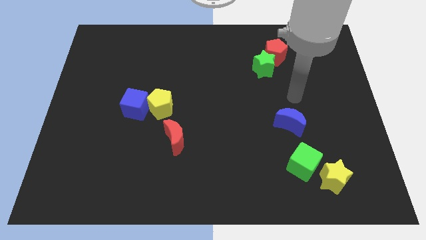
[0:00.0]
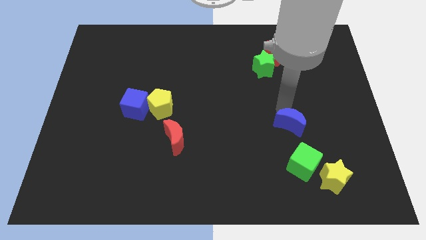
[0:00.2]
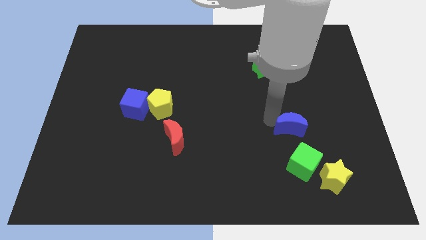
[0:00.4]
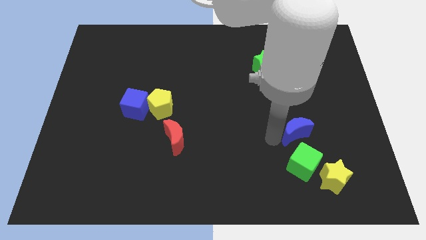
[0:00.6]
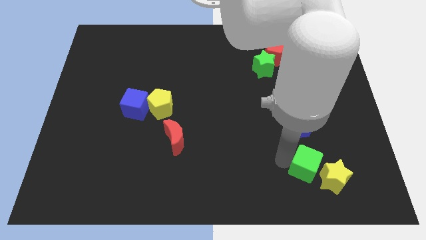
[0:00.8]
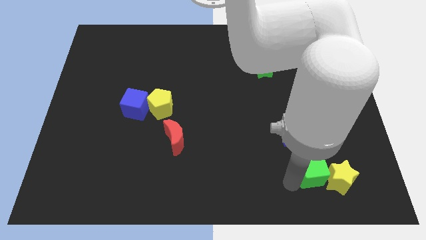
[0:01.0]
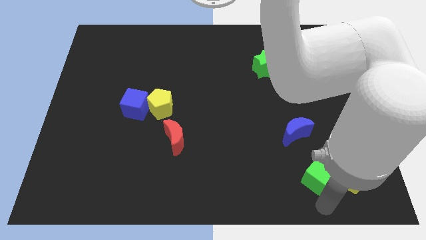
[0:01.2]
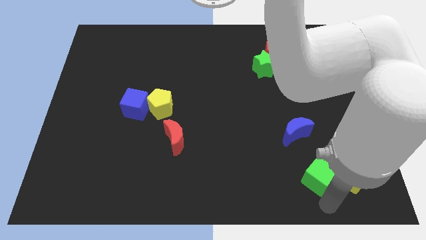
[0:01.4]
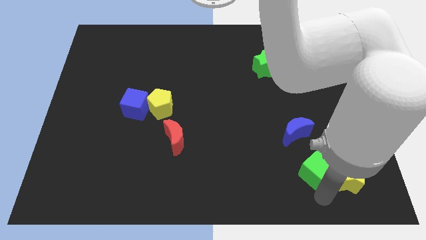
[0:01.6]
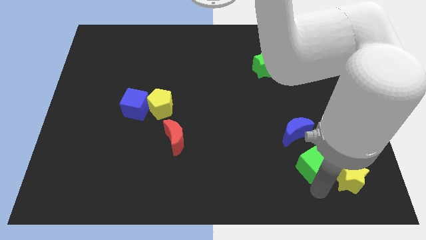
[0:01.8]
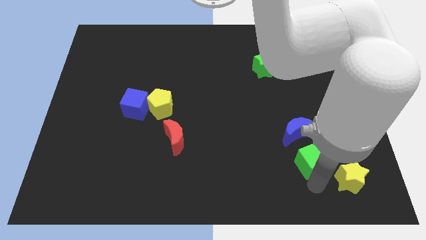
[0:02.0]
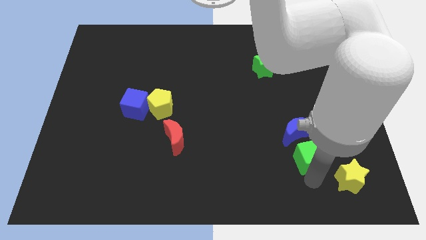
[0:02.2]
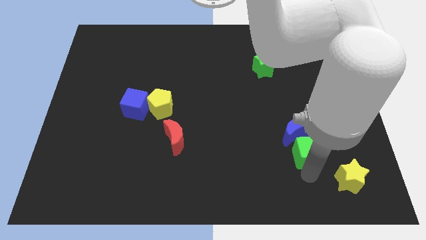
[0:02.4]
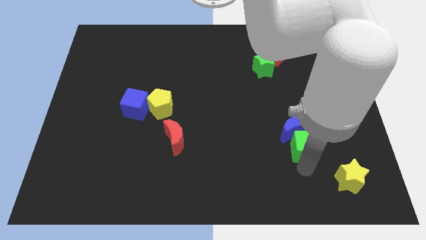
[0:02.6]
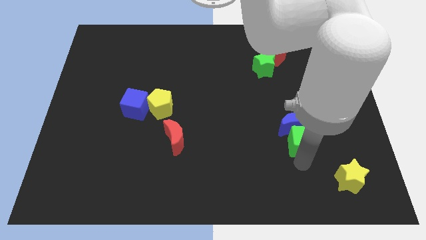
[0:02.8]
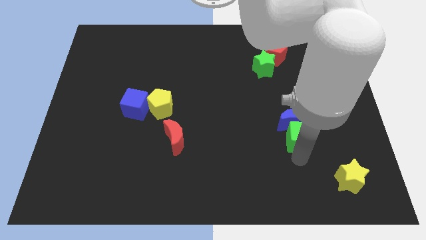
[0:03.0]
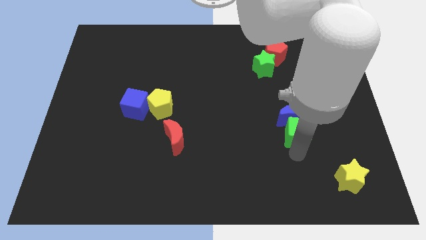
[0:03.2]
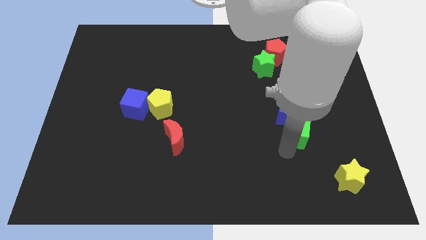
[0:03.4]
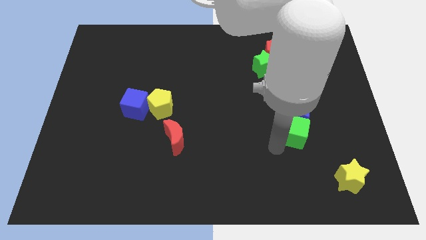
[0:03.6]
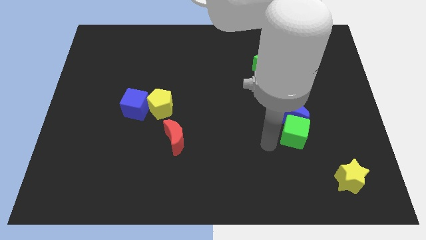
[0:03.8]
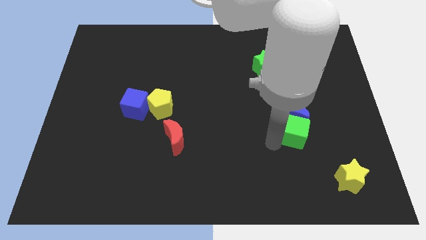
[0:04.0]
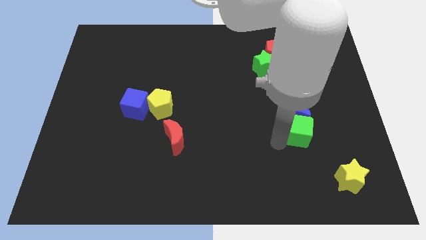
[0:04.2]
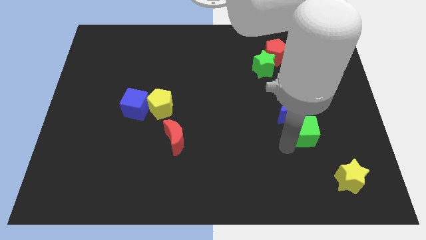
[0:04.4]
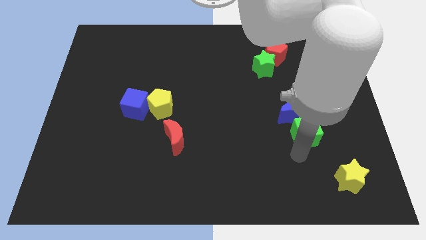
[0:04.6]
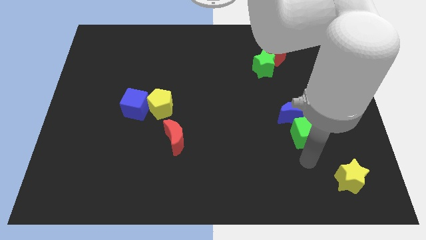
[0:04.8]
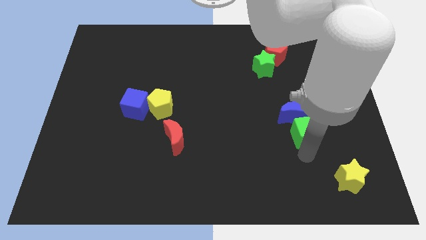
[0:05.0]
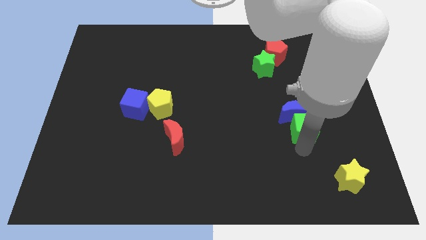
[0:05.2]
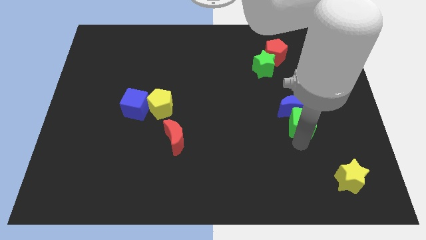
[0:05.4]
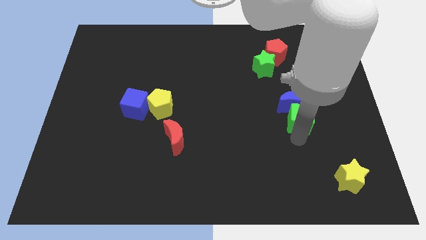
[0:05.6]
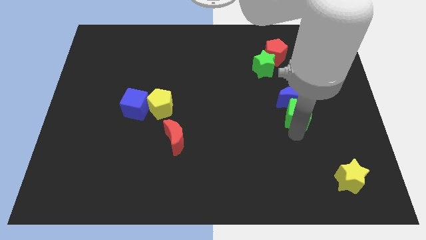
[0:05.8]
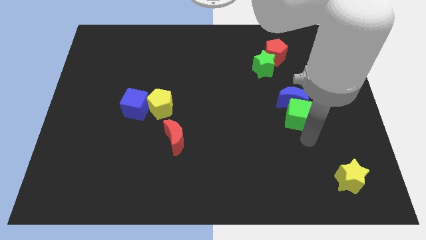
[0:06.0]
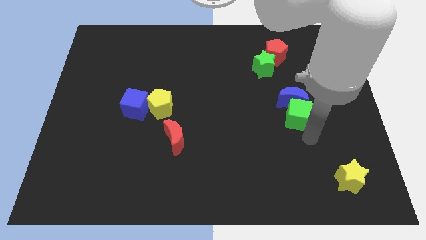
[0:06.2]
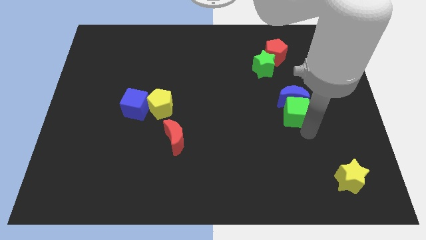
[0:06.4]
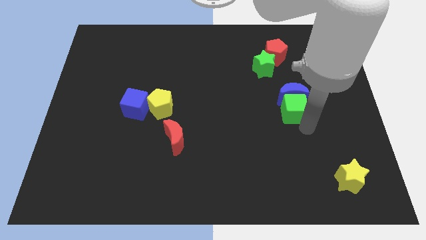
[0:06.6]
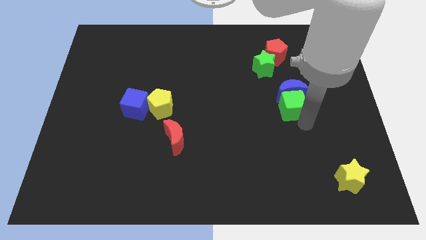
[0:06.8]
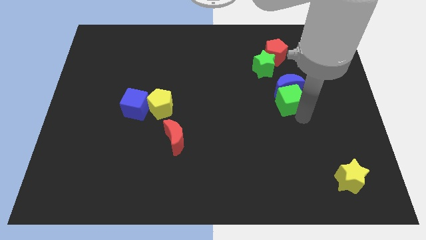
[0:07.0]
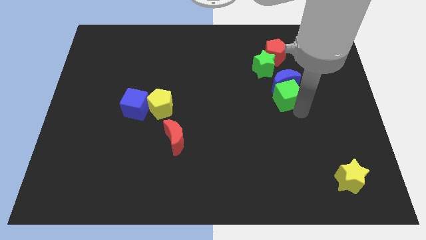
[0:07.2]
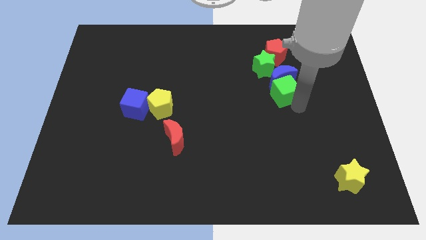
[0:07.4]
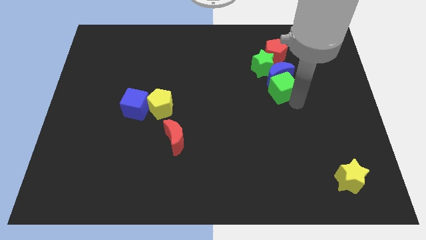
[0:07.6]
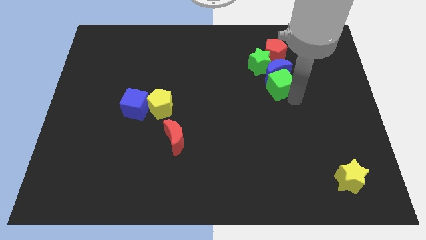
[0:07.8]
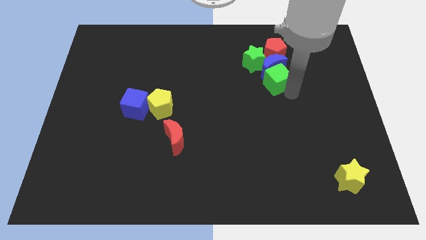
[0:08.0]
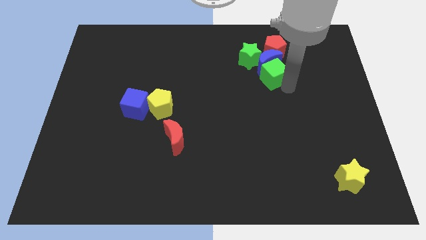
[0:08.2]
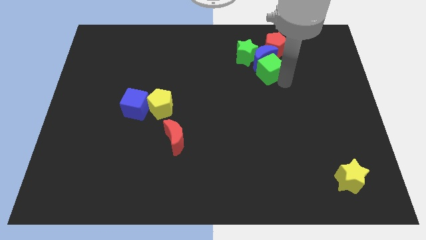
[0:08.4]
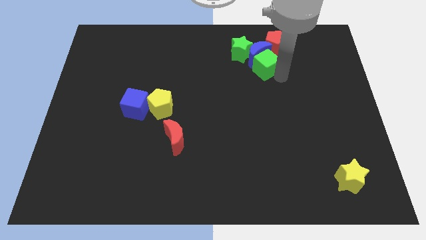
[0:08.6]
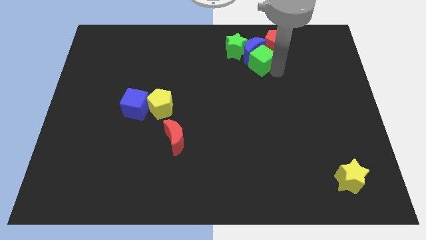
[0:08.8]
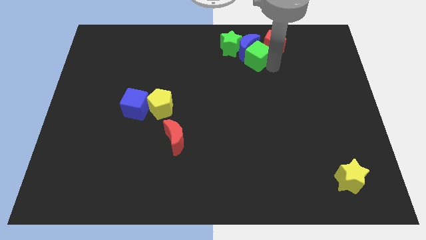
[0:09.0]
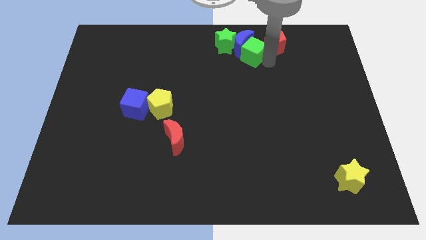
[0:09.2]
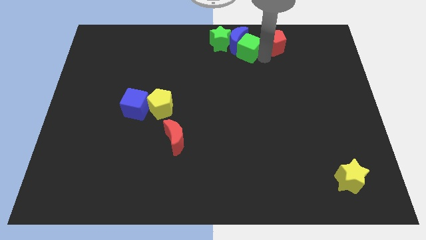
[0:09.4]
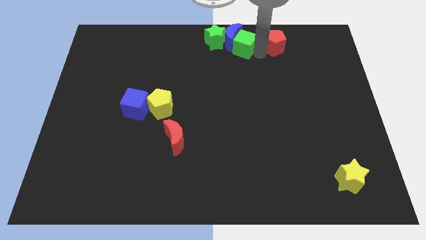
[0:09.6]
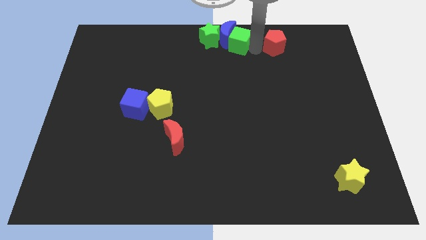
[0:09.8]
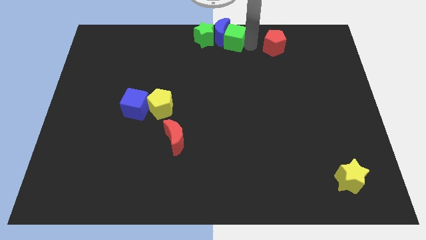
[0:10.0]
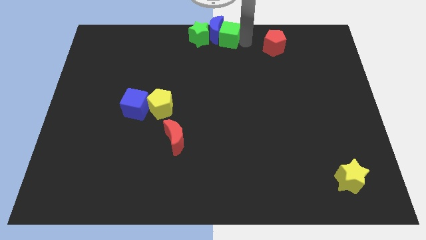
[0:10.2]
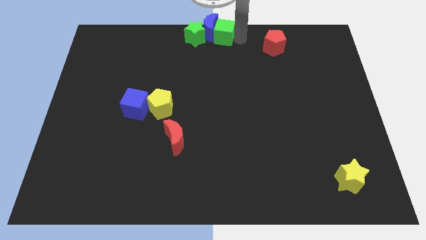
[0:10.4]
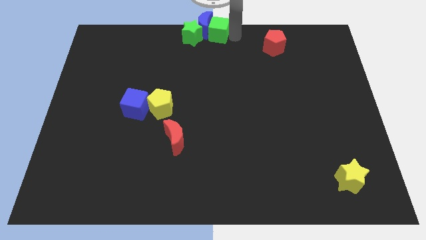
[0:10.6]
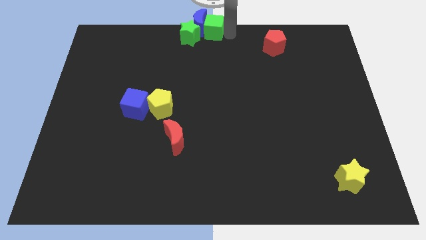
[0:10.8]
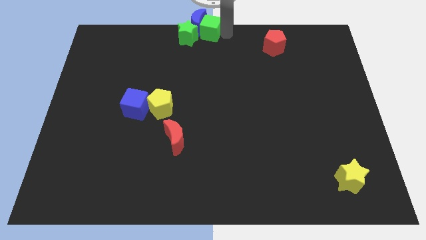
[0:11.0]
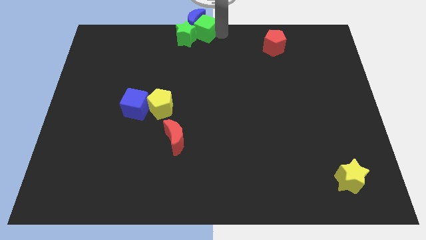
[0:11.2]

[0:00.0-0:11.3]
slide the green cube close to the green star

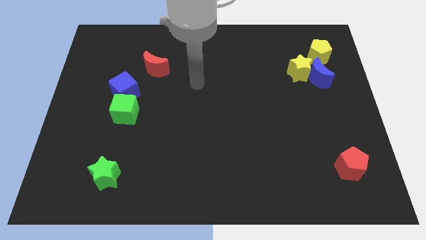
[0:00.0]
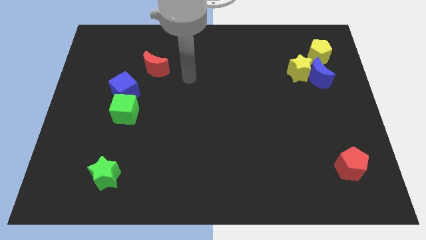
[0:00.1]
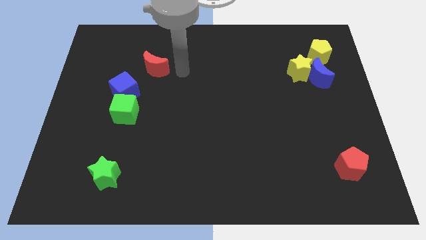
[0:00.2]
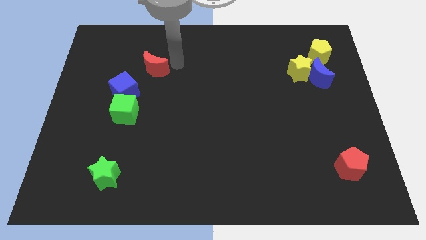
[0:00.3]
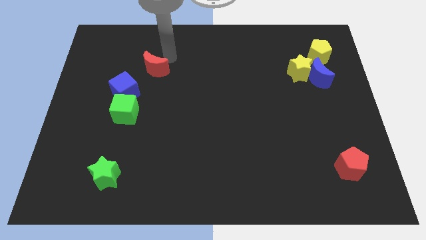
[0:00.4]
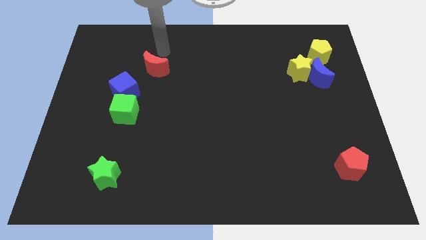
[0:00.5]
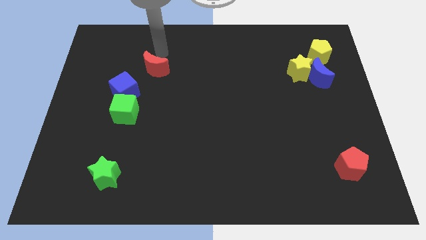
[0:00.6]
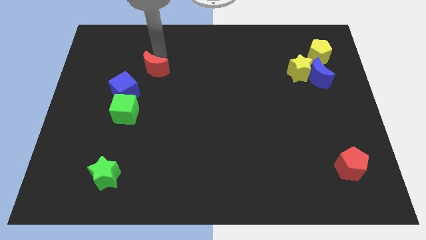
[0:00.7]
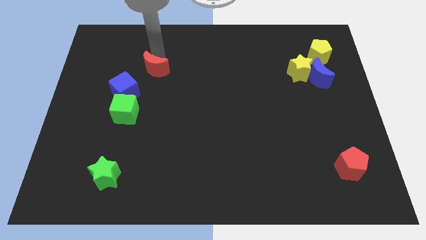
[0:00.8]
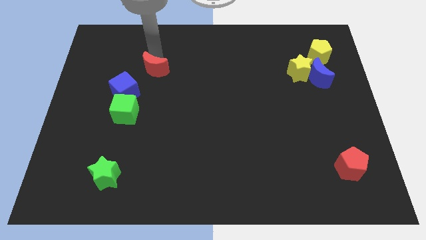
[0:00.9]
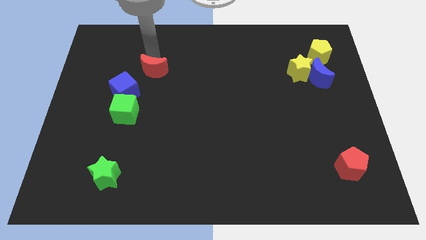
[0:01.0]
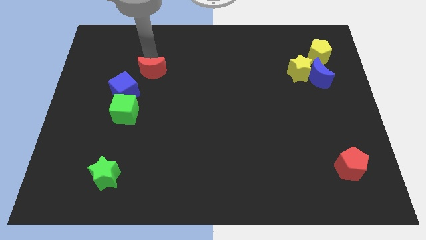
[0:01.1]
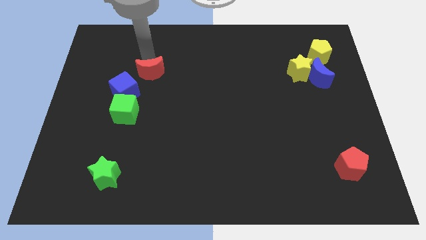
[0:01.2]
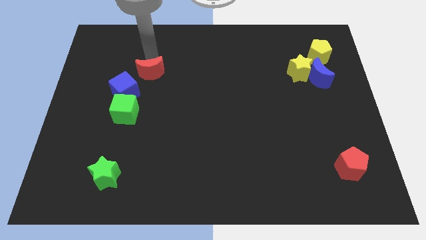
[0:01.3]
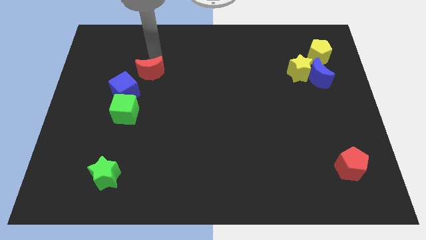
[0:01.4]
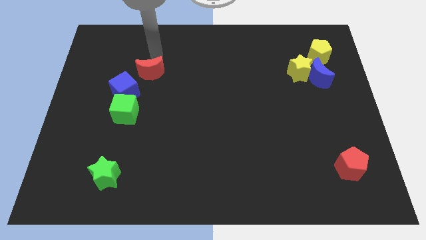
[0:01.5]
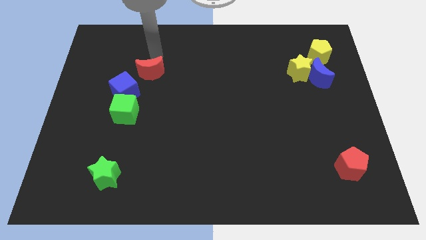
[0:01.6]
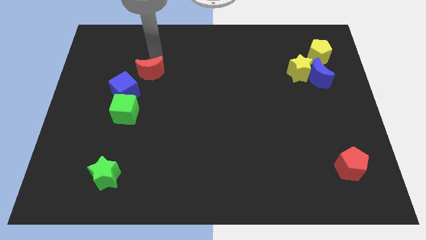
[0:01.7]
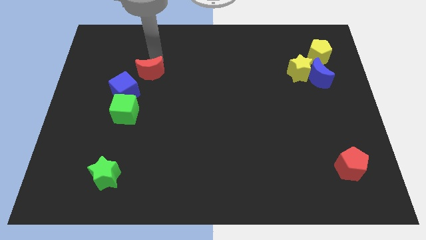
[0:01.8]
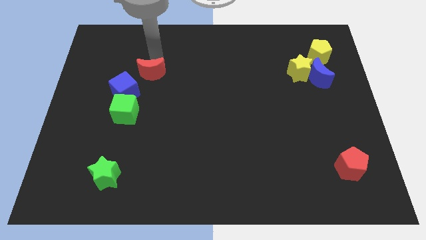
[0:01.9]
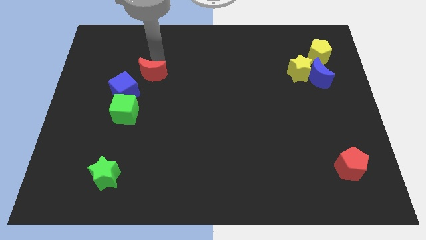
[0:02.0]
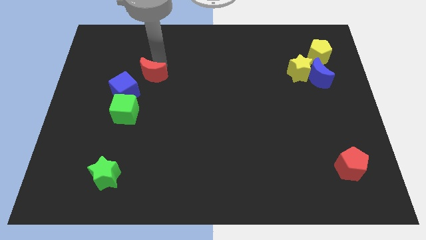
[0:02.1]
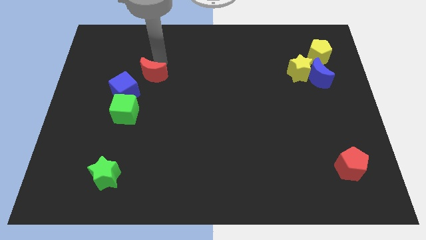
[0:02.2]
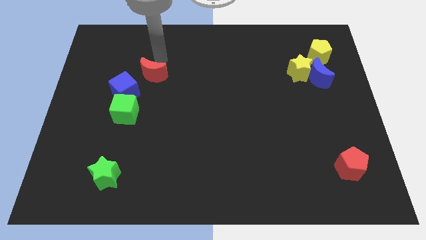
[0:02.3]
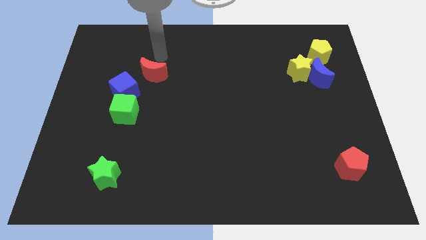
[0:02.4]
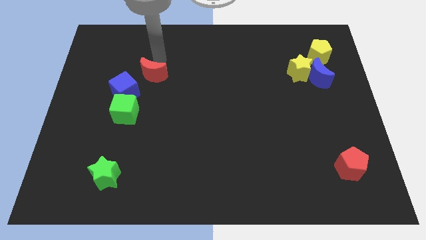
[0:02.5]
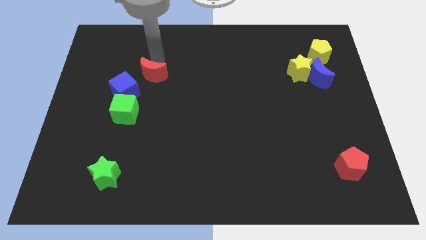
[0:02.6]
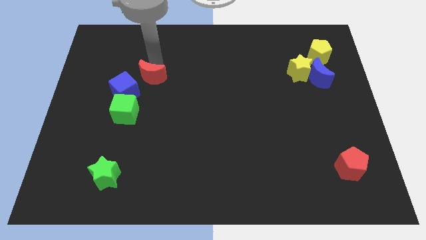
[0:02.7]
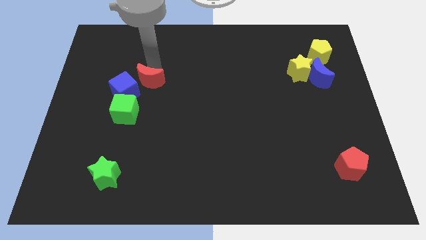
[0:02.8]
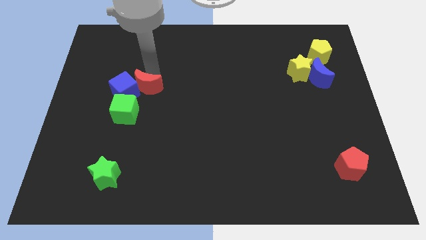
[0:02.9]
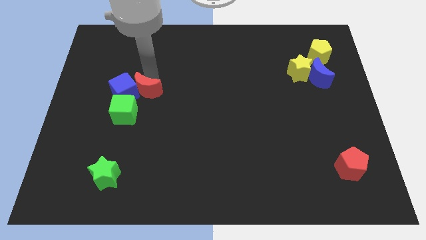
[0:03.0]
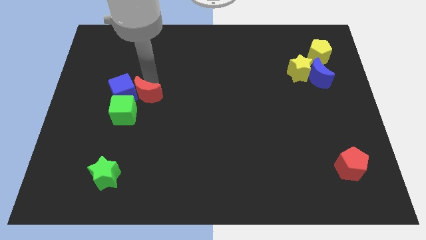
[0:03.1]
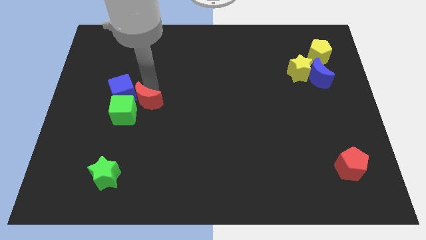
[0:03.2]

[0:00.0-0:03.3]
push the red moon close to the green cube
